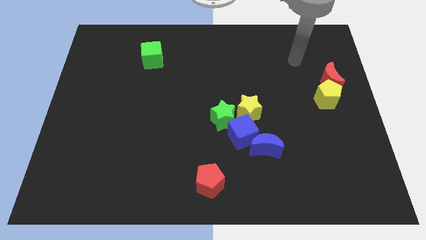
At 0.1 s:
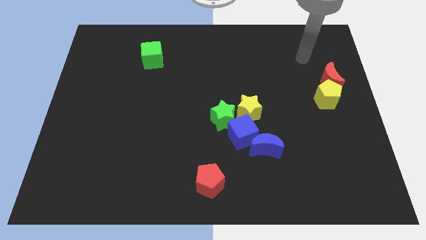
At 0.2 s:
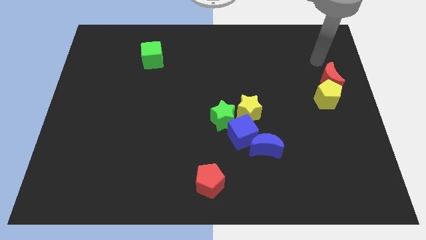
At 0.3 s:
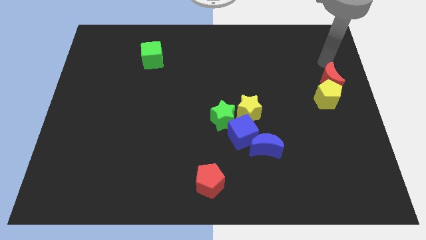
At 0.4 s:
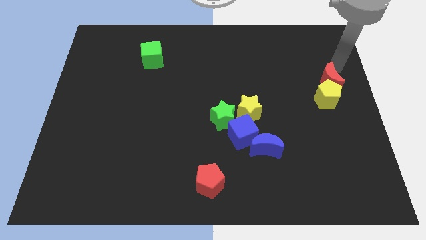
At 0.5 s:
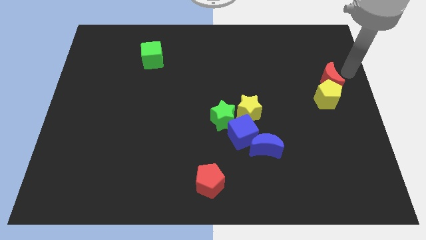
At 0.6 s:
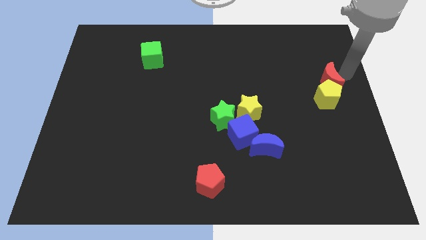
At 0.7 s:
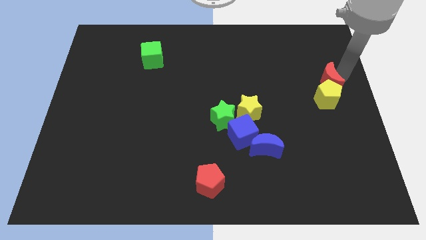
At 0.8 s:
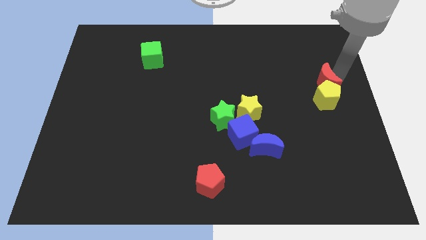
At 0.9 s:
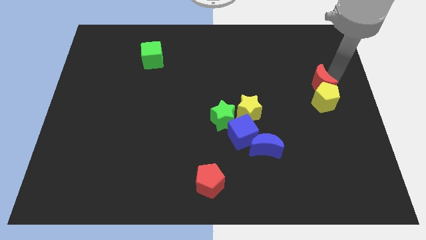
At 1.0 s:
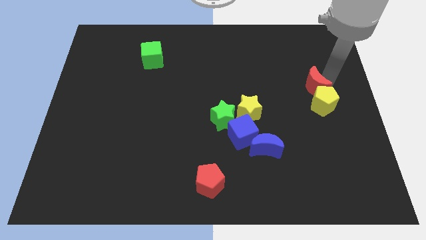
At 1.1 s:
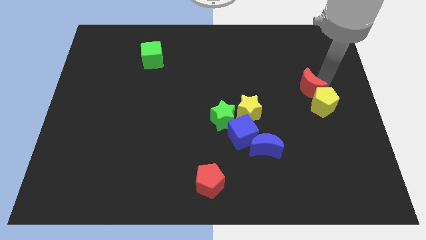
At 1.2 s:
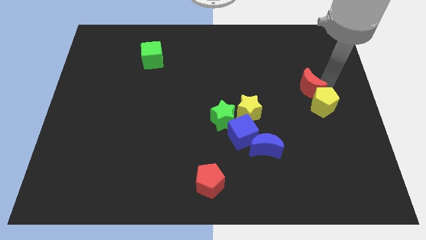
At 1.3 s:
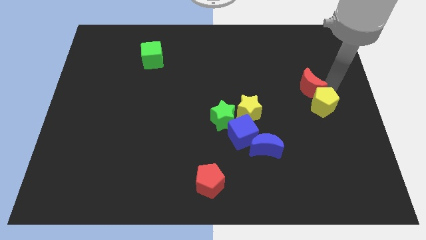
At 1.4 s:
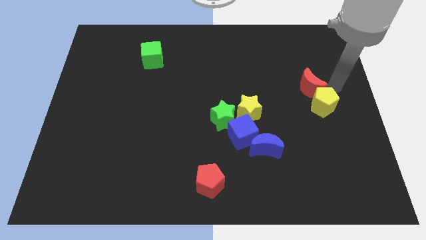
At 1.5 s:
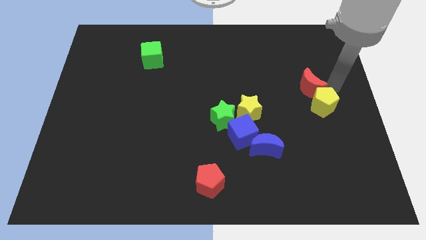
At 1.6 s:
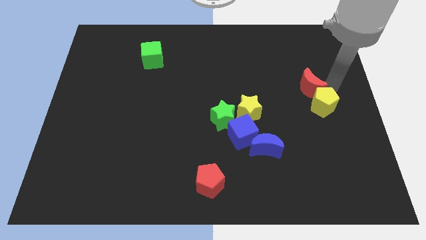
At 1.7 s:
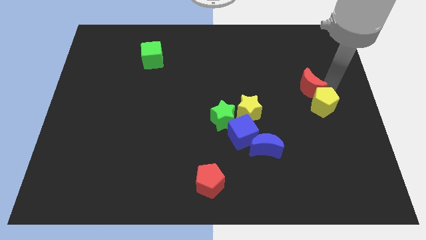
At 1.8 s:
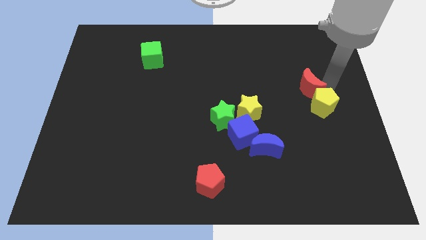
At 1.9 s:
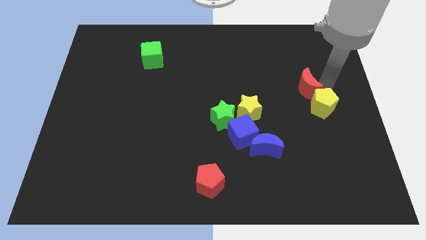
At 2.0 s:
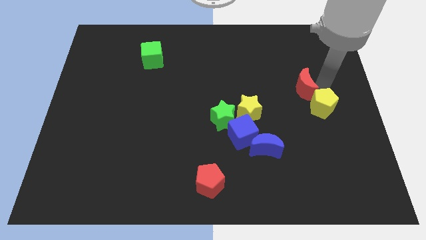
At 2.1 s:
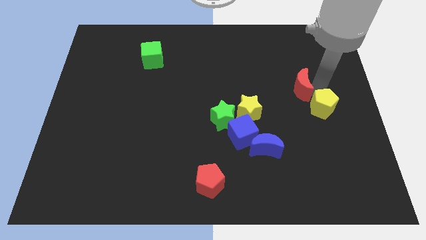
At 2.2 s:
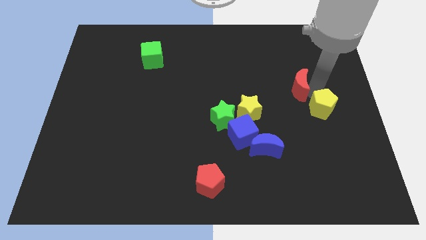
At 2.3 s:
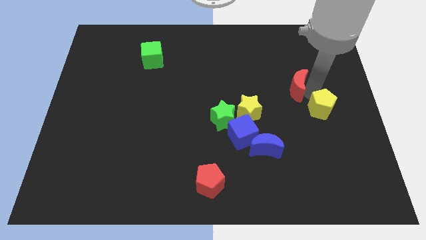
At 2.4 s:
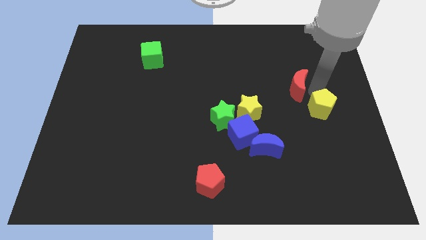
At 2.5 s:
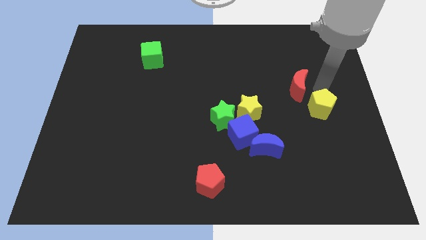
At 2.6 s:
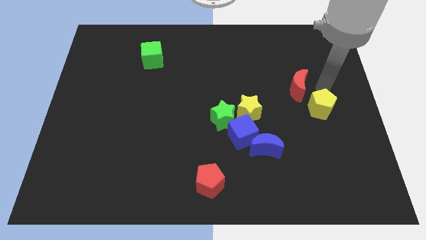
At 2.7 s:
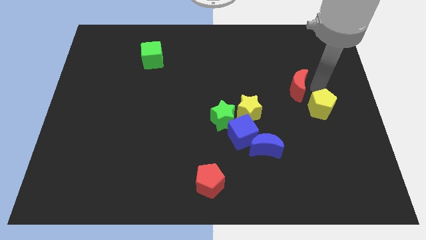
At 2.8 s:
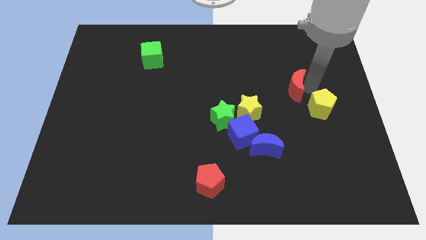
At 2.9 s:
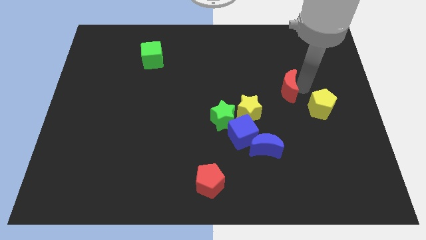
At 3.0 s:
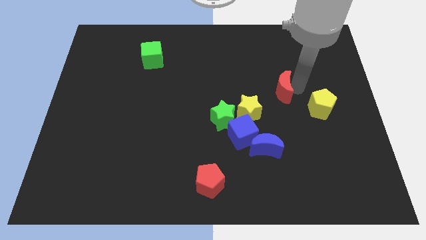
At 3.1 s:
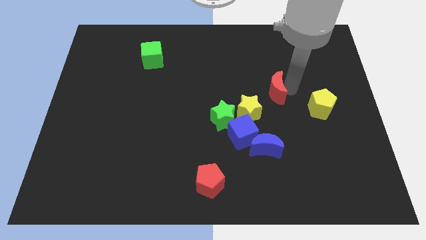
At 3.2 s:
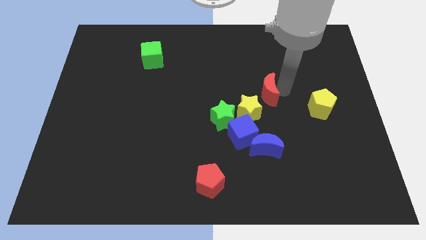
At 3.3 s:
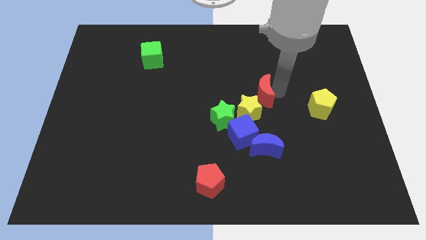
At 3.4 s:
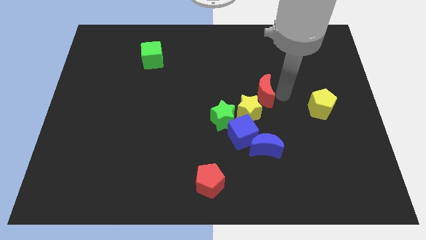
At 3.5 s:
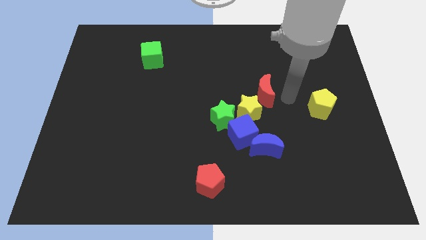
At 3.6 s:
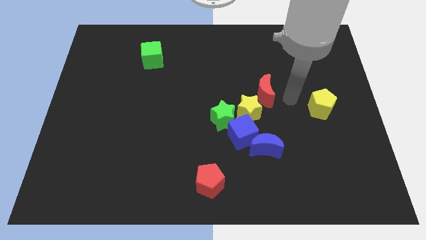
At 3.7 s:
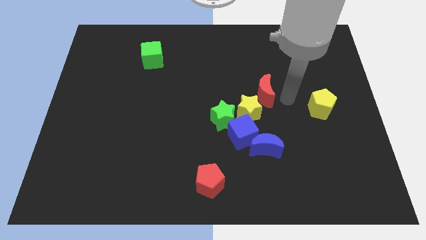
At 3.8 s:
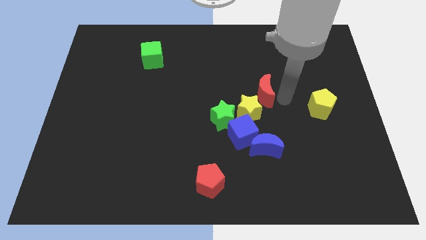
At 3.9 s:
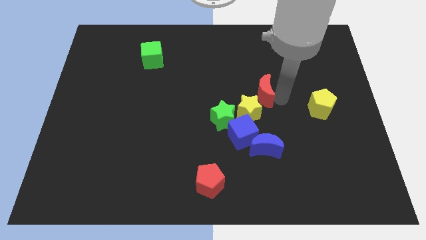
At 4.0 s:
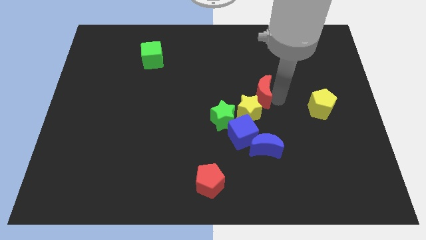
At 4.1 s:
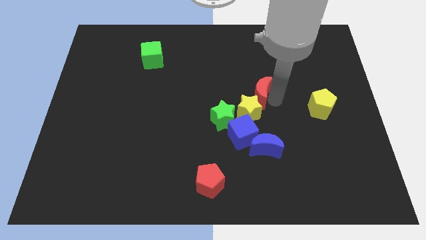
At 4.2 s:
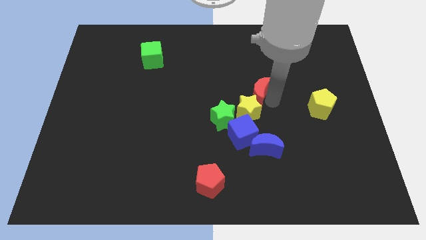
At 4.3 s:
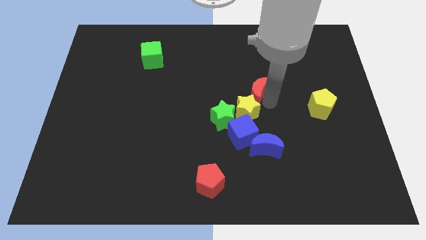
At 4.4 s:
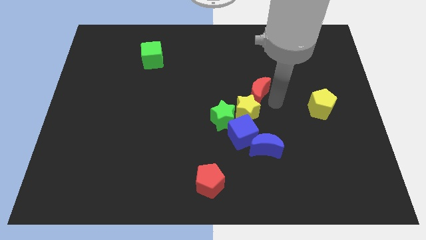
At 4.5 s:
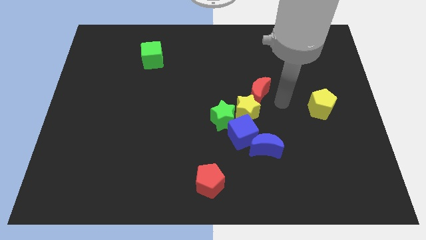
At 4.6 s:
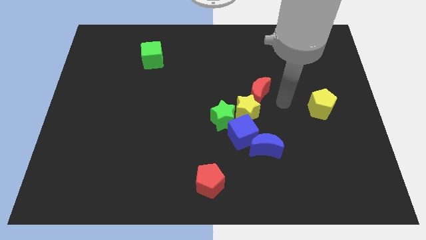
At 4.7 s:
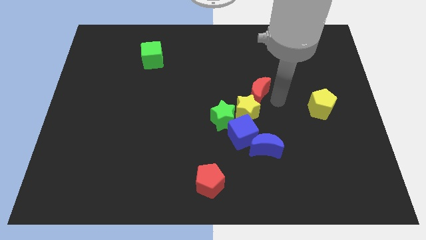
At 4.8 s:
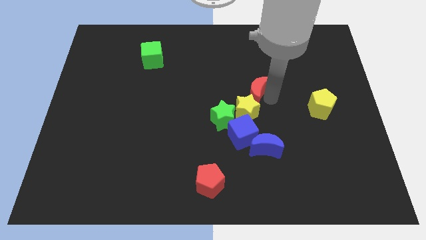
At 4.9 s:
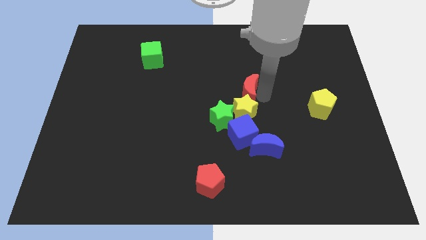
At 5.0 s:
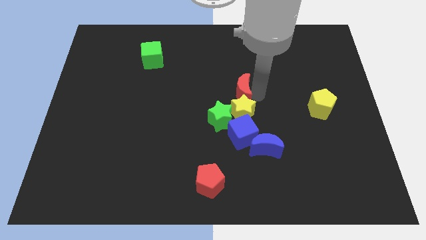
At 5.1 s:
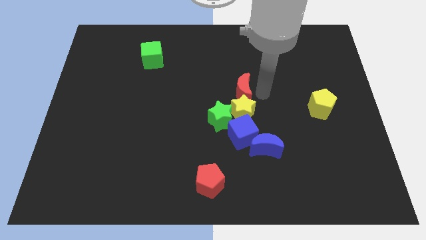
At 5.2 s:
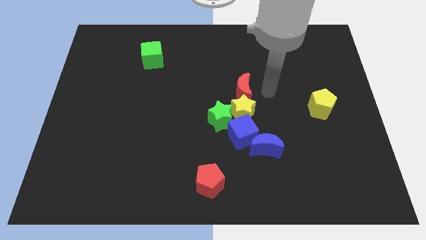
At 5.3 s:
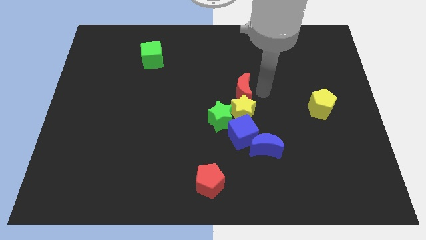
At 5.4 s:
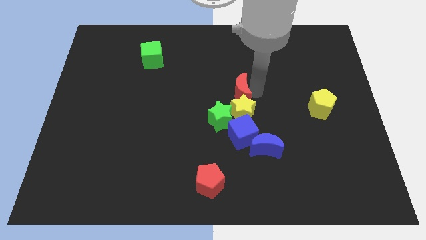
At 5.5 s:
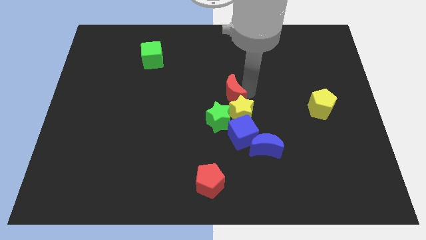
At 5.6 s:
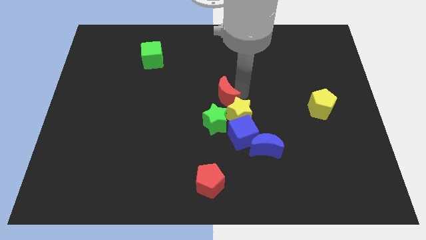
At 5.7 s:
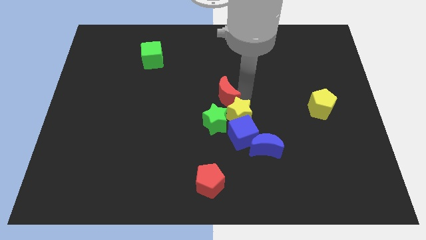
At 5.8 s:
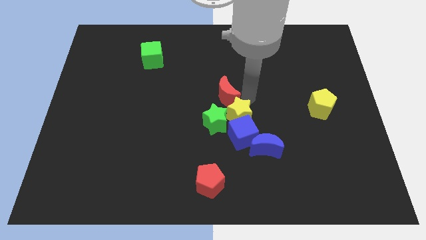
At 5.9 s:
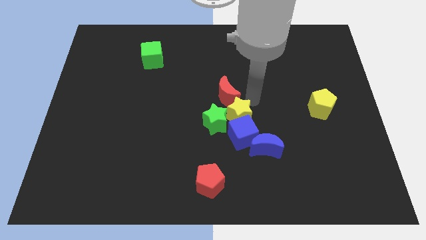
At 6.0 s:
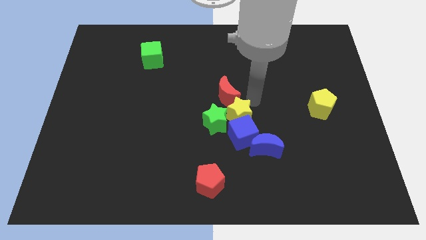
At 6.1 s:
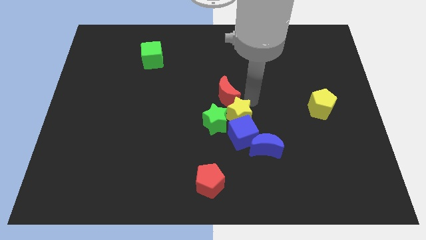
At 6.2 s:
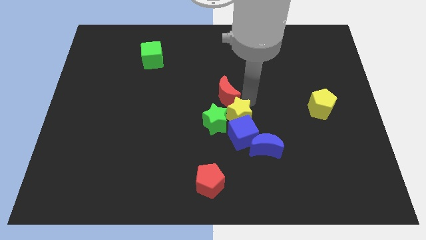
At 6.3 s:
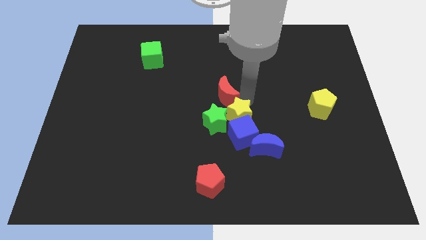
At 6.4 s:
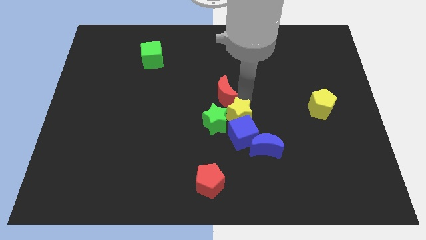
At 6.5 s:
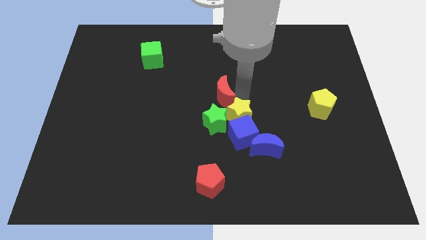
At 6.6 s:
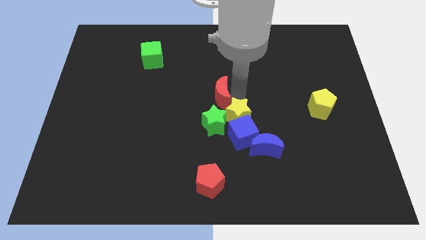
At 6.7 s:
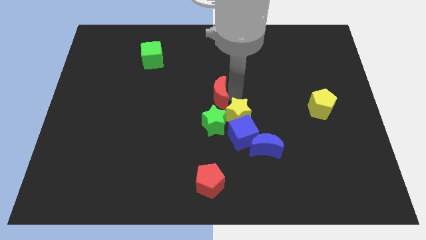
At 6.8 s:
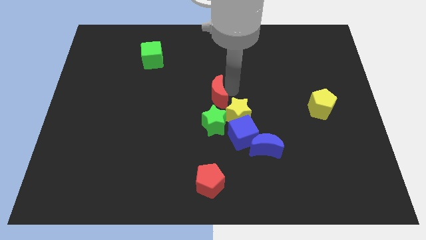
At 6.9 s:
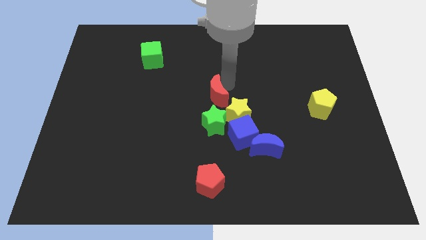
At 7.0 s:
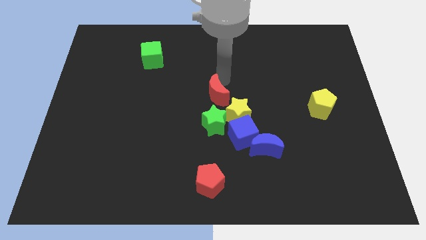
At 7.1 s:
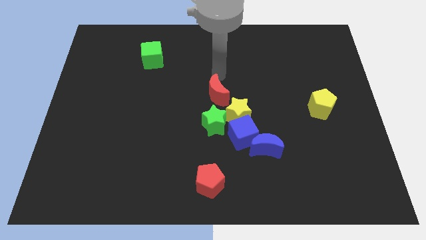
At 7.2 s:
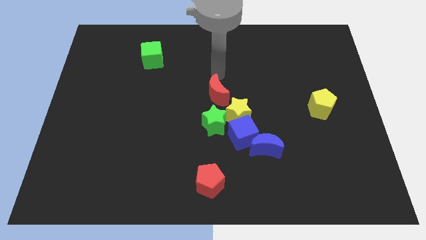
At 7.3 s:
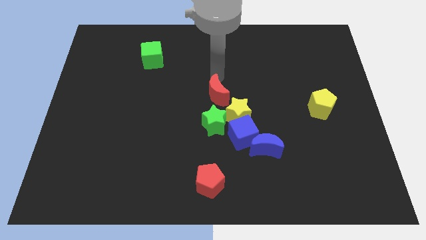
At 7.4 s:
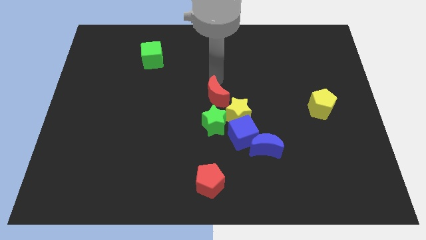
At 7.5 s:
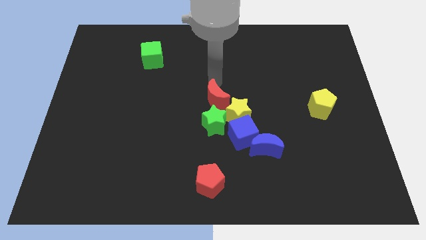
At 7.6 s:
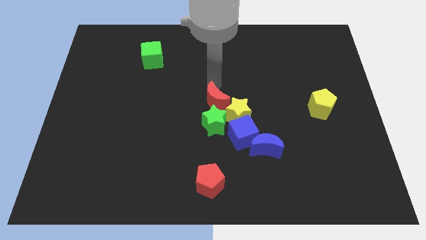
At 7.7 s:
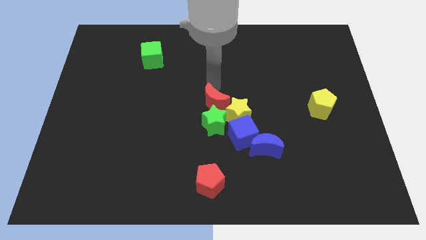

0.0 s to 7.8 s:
push the red moon next to the green star

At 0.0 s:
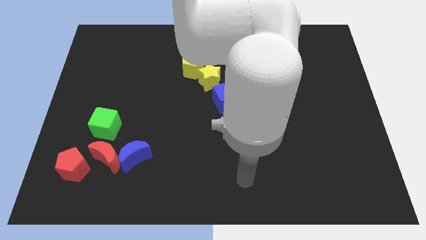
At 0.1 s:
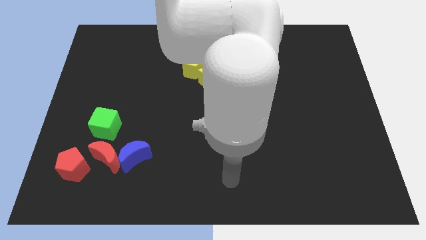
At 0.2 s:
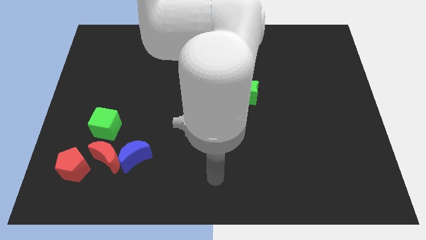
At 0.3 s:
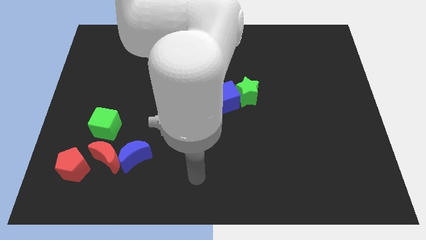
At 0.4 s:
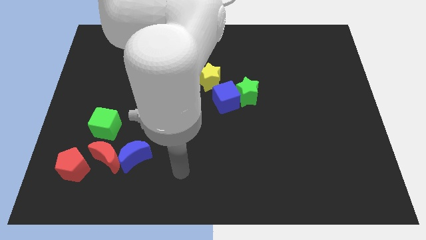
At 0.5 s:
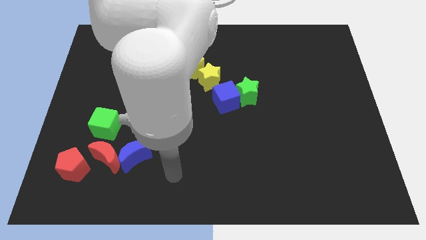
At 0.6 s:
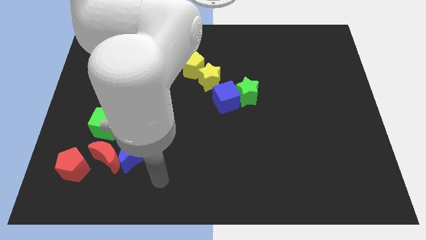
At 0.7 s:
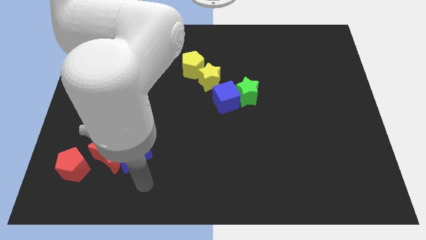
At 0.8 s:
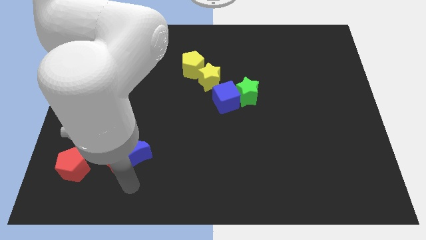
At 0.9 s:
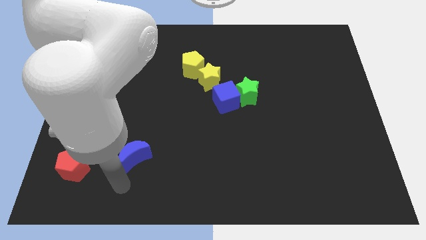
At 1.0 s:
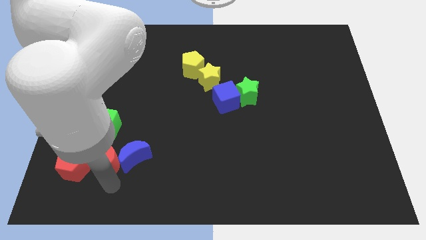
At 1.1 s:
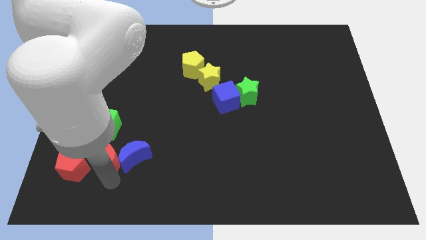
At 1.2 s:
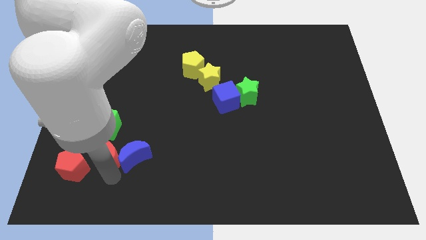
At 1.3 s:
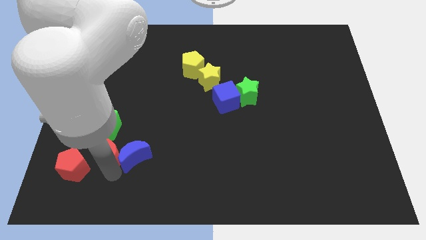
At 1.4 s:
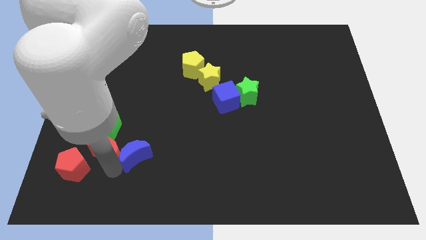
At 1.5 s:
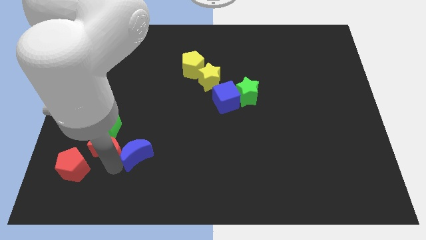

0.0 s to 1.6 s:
move the red moon close to the green cube
